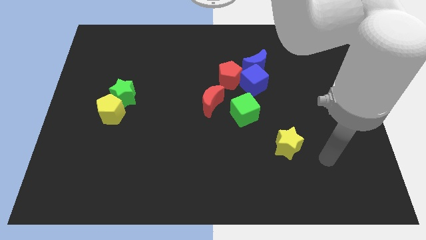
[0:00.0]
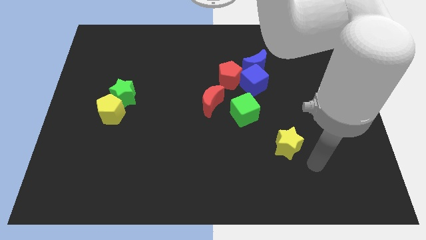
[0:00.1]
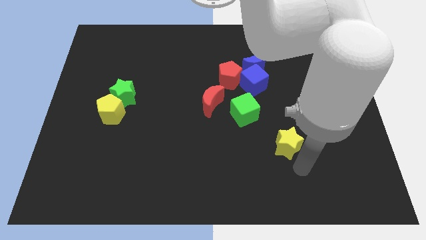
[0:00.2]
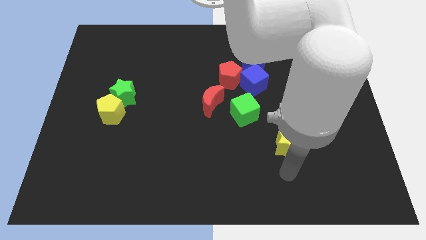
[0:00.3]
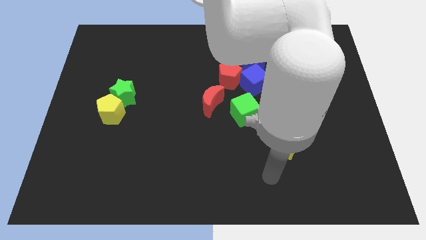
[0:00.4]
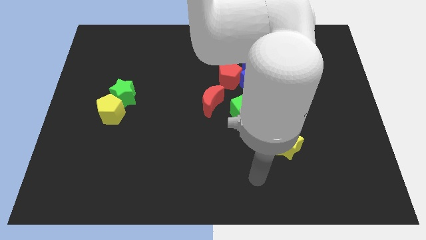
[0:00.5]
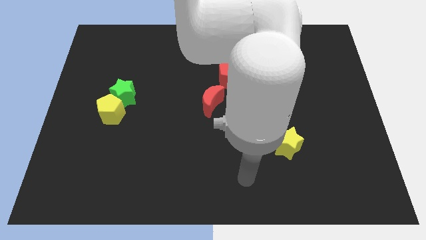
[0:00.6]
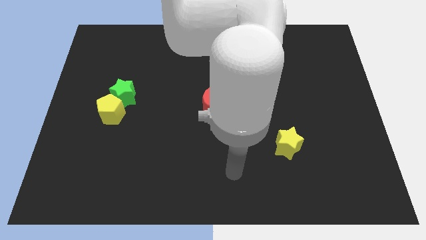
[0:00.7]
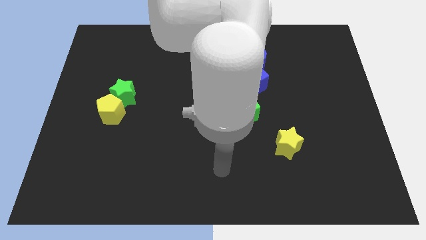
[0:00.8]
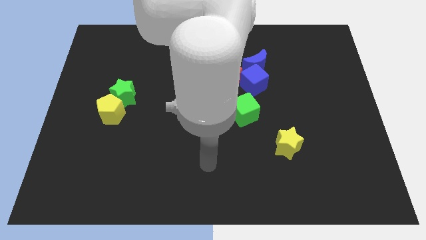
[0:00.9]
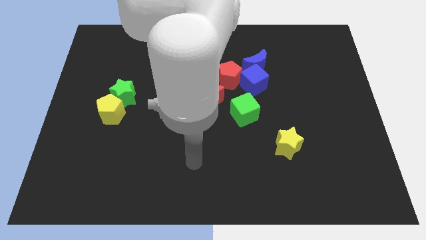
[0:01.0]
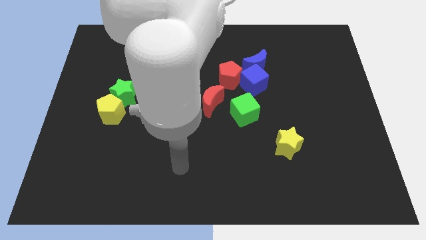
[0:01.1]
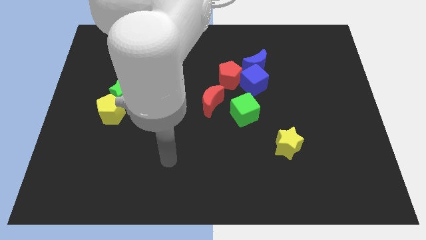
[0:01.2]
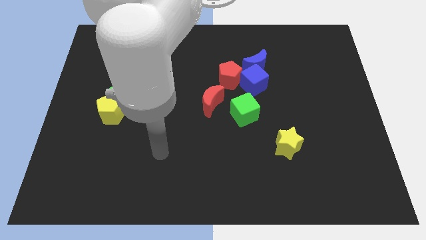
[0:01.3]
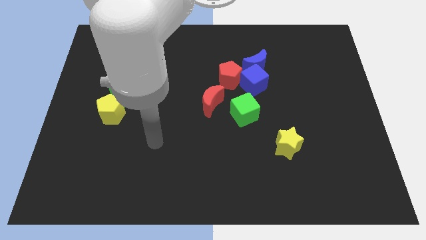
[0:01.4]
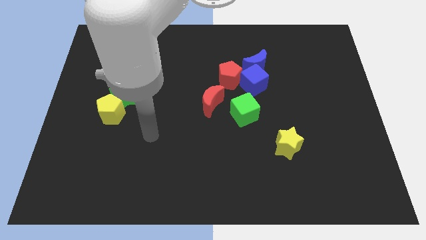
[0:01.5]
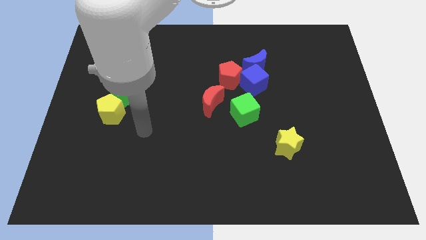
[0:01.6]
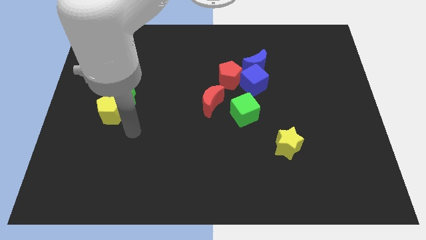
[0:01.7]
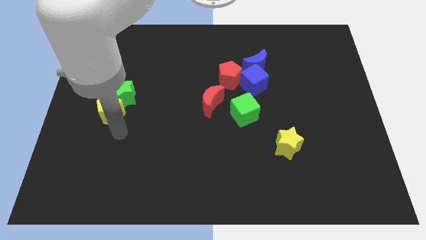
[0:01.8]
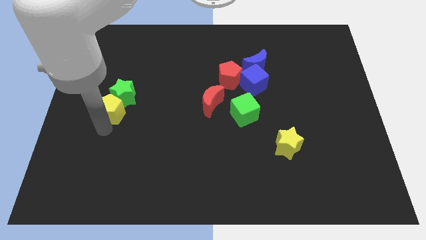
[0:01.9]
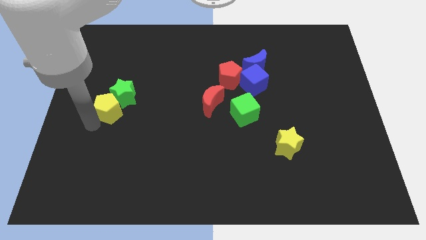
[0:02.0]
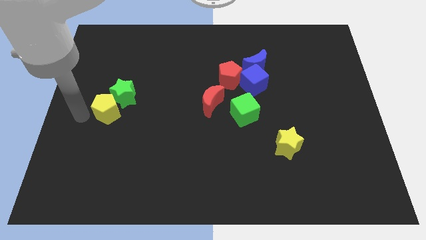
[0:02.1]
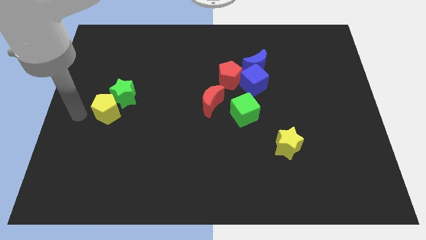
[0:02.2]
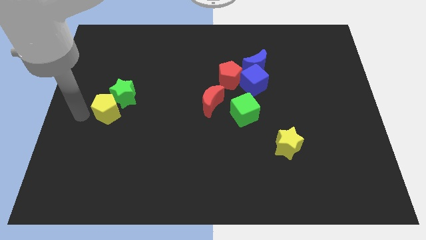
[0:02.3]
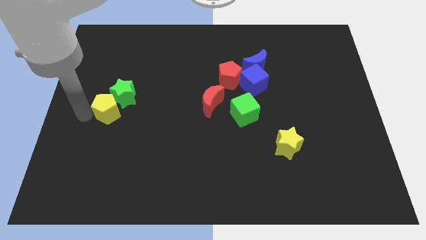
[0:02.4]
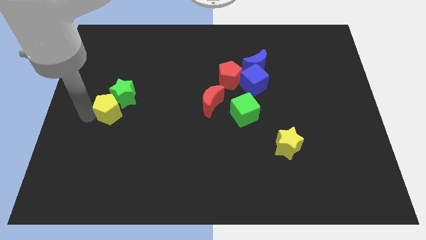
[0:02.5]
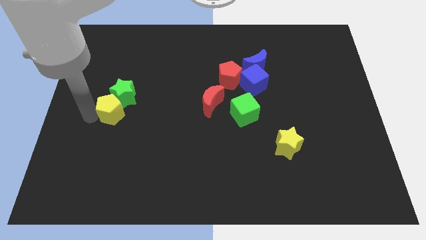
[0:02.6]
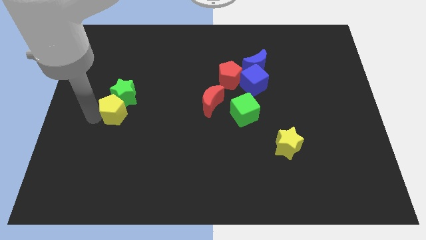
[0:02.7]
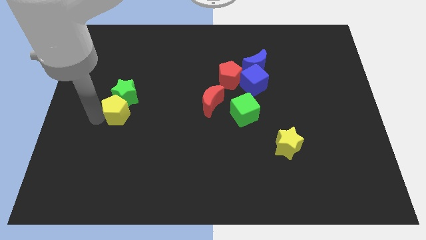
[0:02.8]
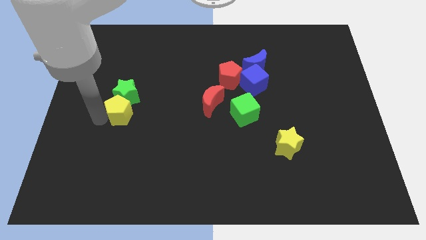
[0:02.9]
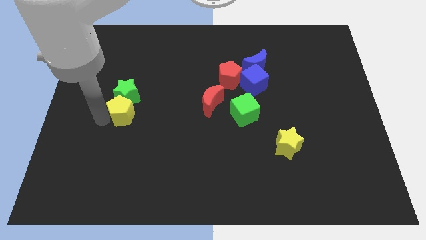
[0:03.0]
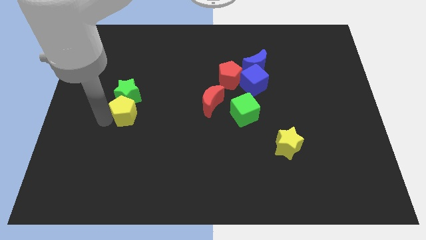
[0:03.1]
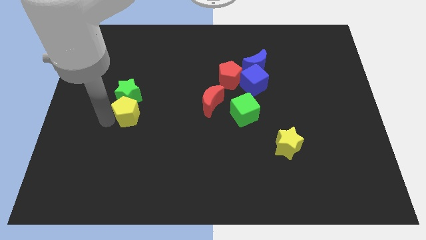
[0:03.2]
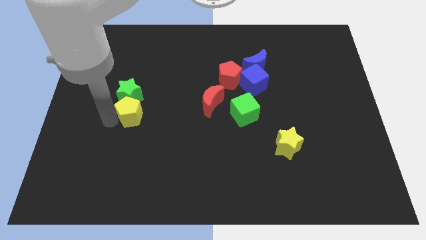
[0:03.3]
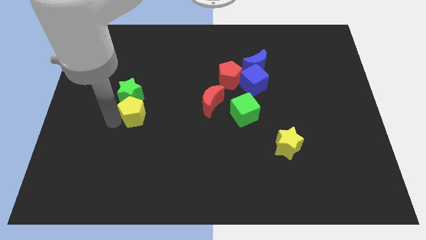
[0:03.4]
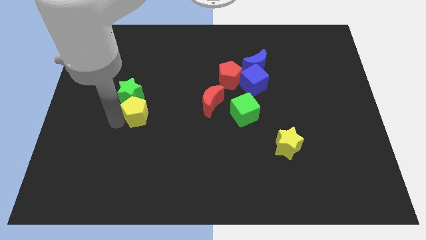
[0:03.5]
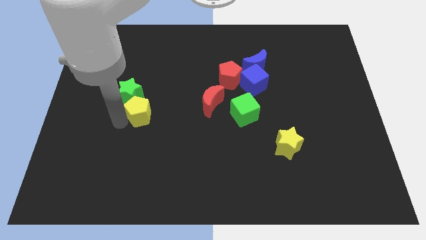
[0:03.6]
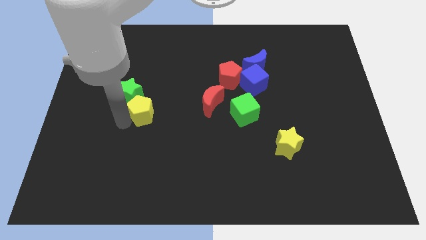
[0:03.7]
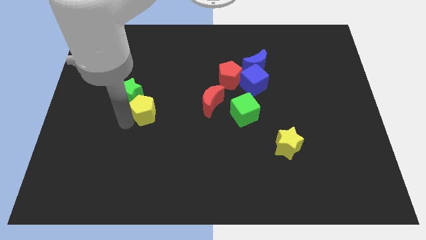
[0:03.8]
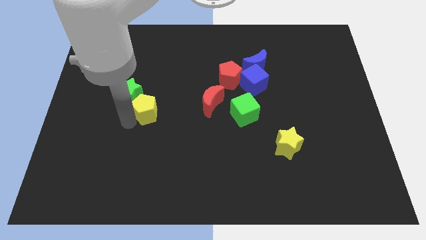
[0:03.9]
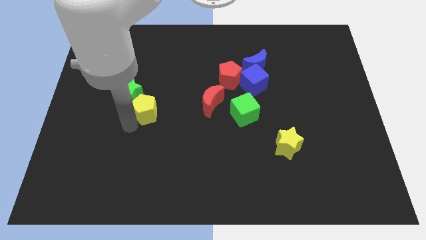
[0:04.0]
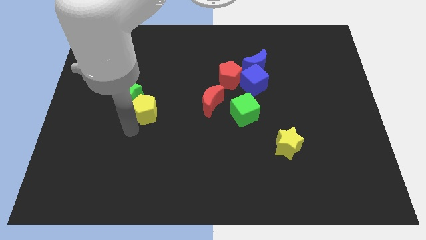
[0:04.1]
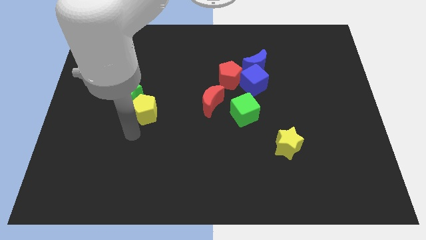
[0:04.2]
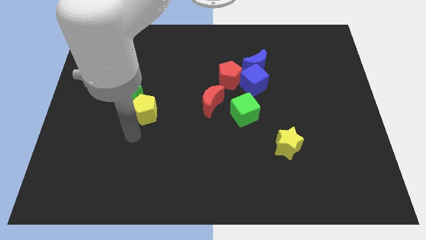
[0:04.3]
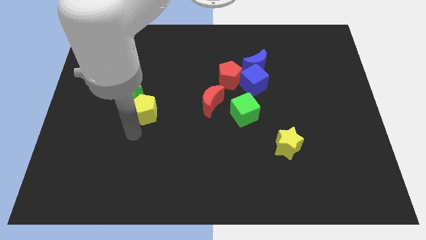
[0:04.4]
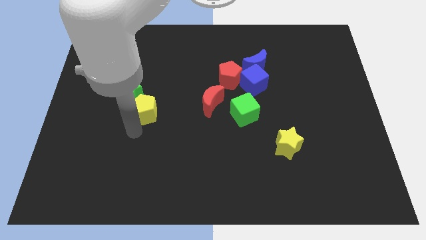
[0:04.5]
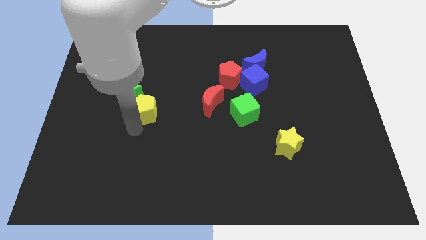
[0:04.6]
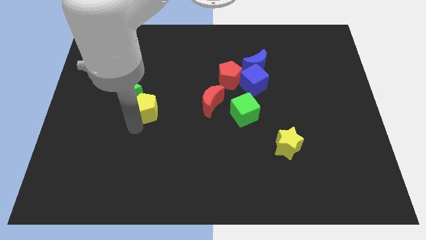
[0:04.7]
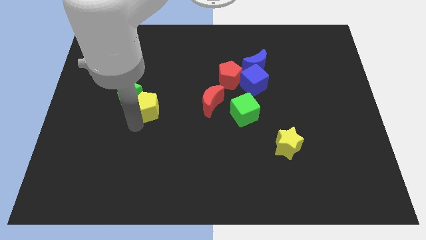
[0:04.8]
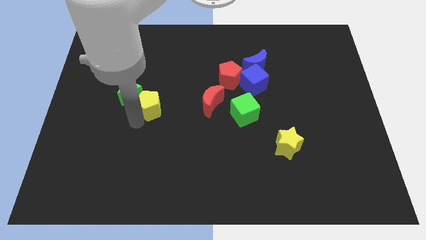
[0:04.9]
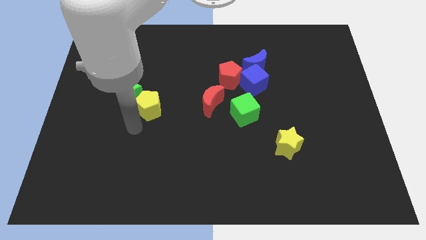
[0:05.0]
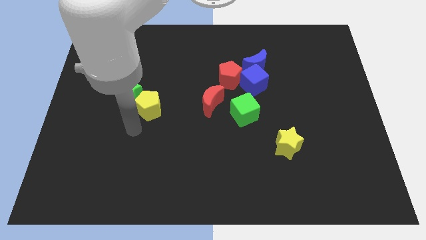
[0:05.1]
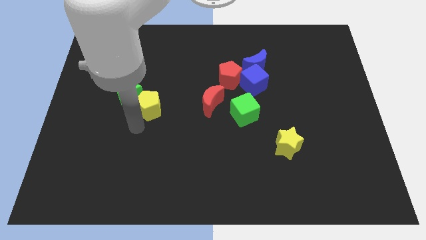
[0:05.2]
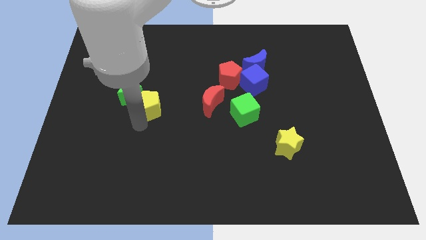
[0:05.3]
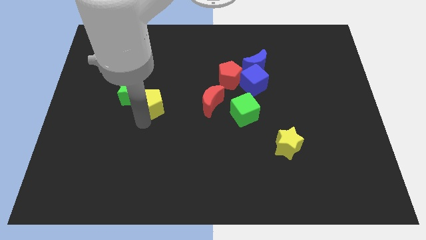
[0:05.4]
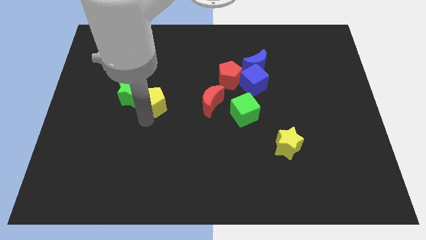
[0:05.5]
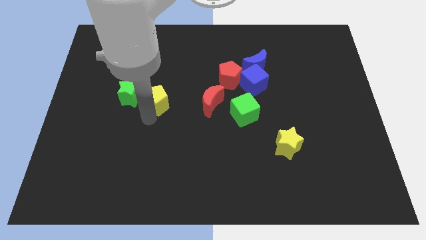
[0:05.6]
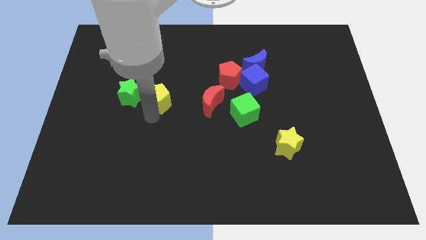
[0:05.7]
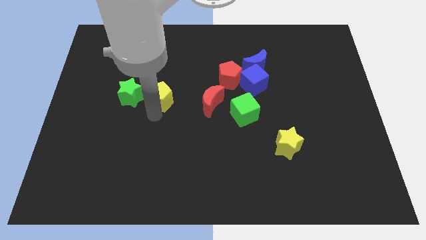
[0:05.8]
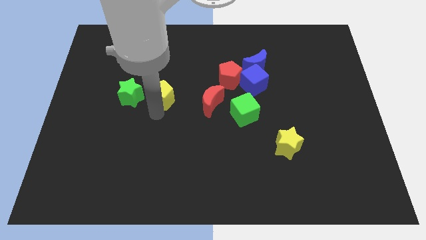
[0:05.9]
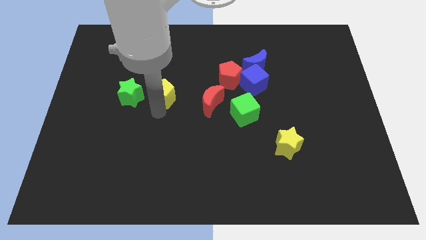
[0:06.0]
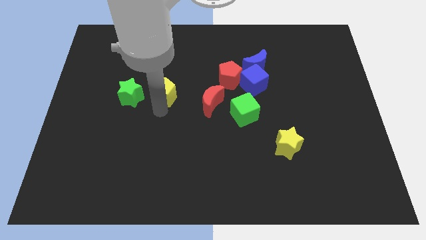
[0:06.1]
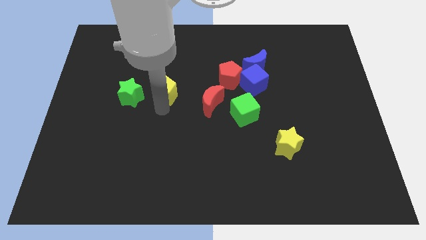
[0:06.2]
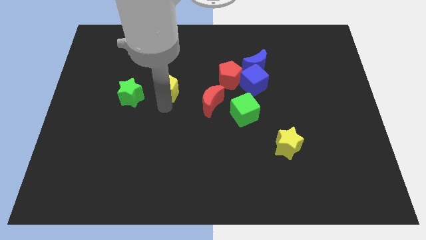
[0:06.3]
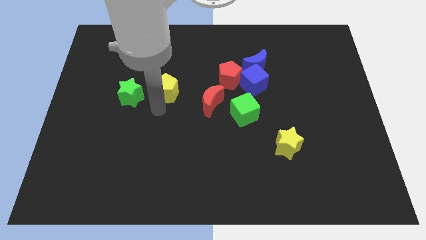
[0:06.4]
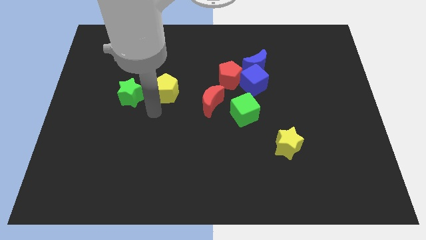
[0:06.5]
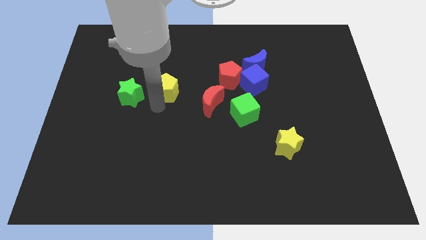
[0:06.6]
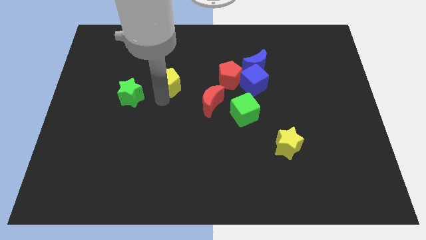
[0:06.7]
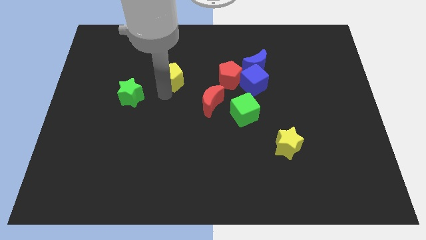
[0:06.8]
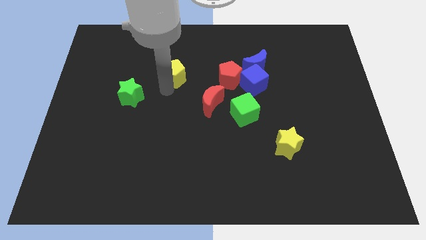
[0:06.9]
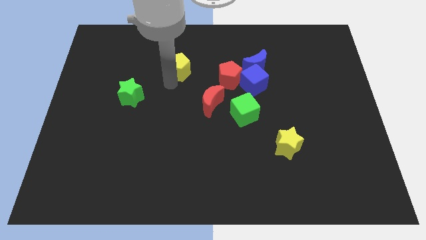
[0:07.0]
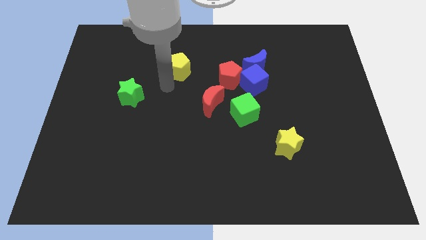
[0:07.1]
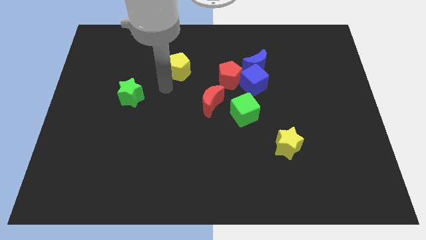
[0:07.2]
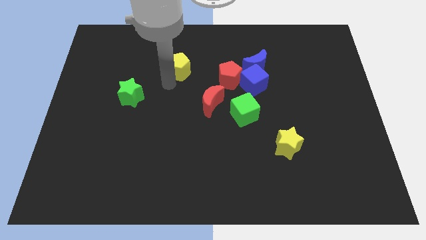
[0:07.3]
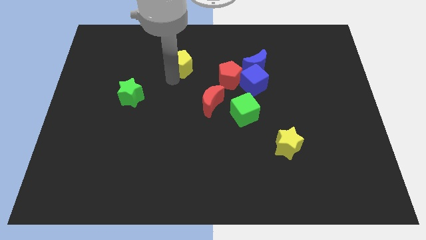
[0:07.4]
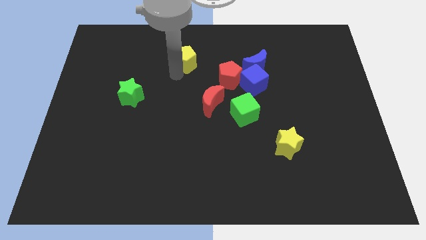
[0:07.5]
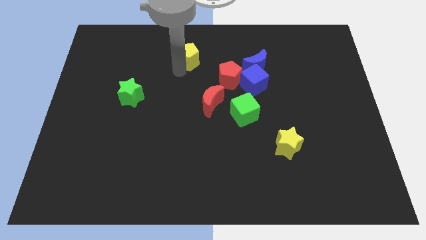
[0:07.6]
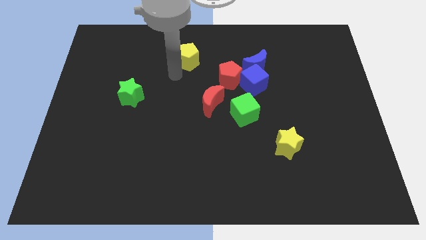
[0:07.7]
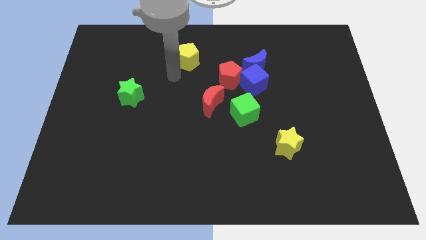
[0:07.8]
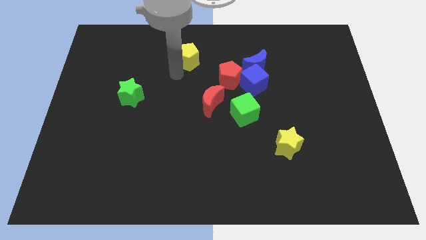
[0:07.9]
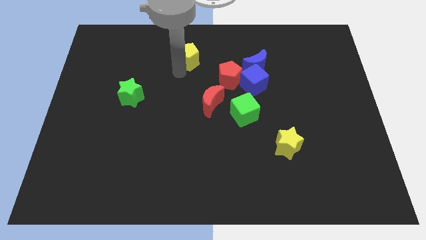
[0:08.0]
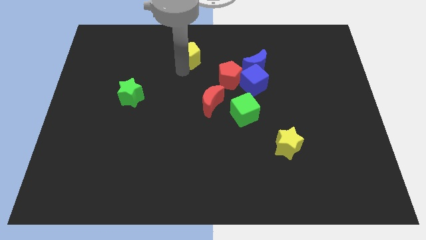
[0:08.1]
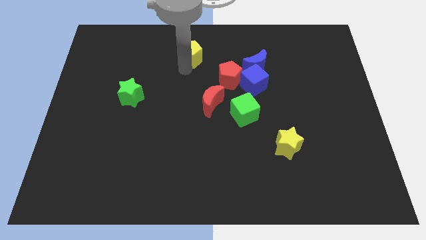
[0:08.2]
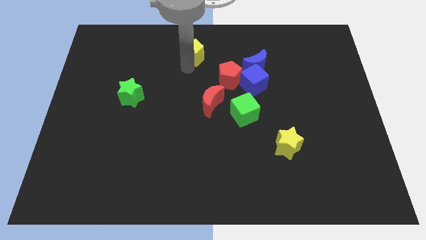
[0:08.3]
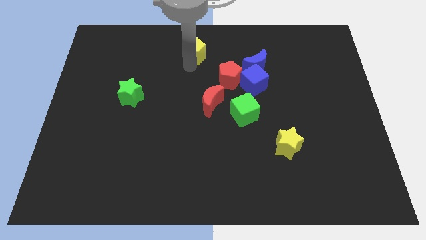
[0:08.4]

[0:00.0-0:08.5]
slide the yellow pentagon to the towards your base
